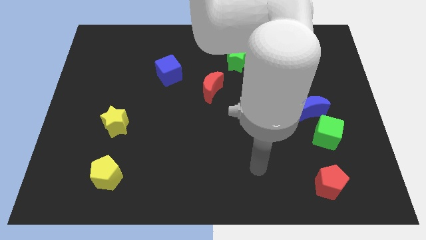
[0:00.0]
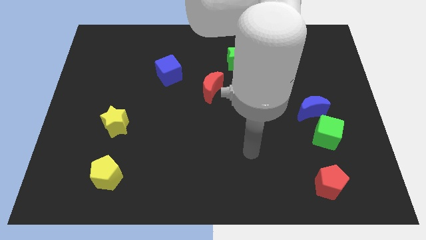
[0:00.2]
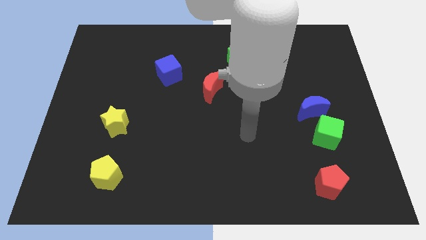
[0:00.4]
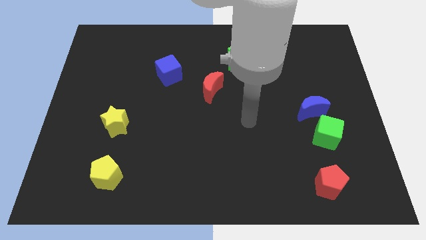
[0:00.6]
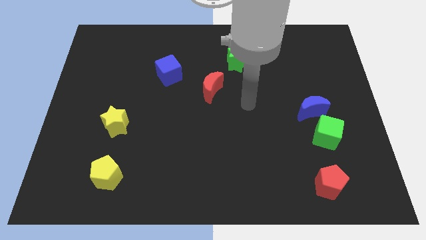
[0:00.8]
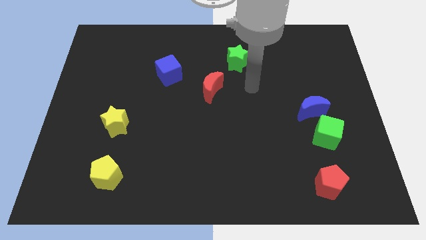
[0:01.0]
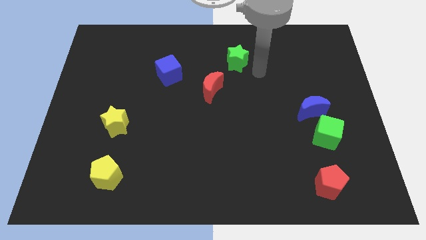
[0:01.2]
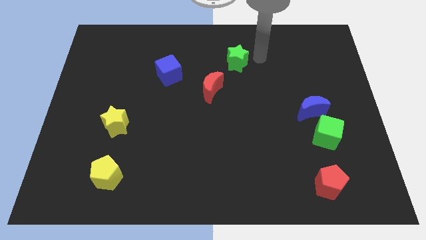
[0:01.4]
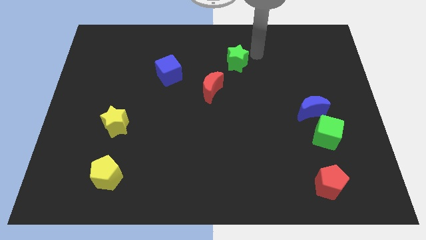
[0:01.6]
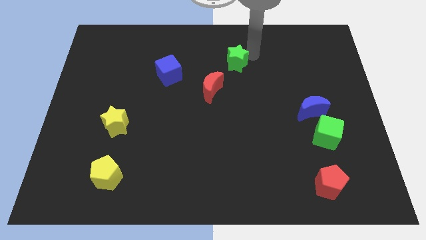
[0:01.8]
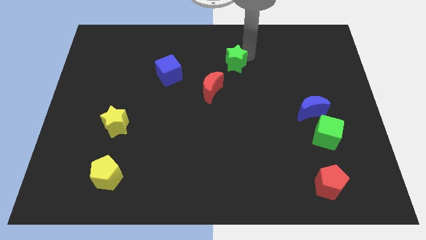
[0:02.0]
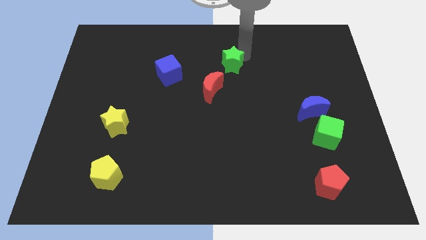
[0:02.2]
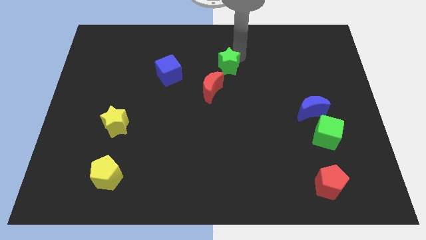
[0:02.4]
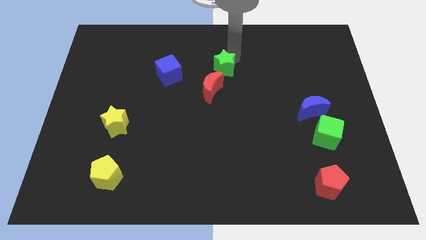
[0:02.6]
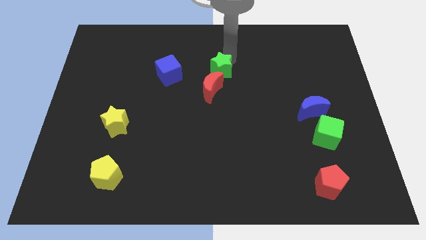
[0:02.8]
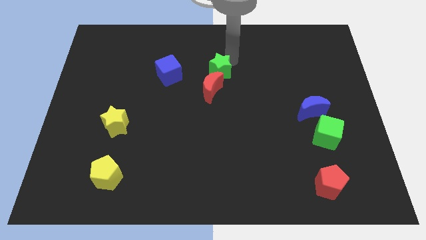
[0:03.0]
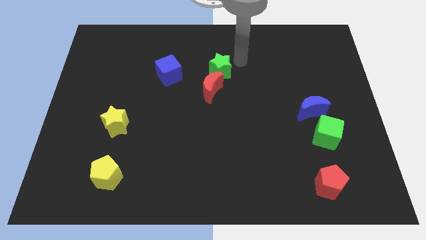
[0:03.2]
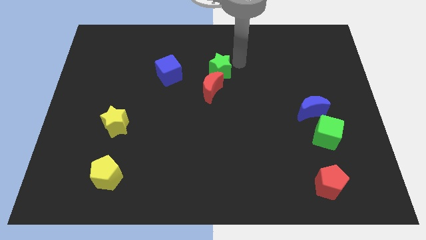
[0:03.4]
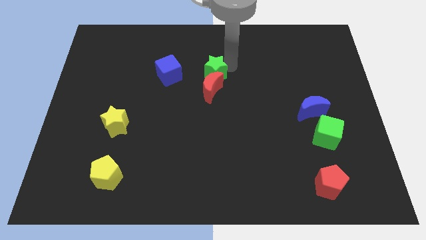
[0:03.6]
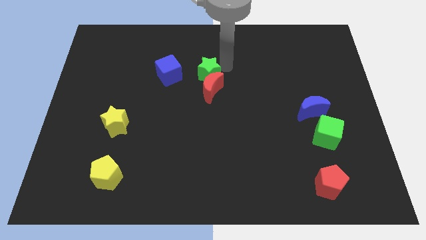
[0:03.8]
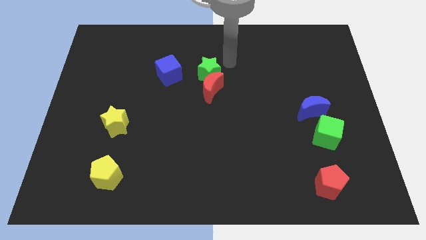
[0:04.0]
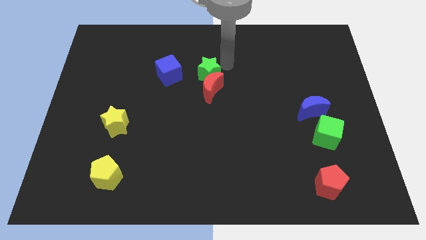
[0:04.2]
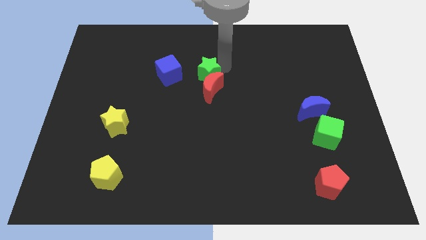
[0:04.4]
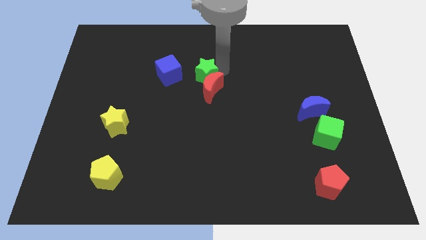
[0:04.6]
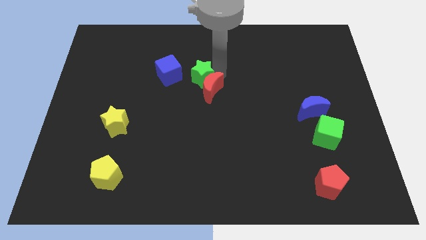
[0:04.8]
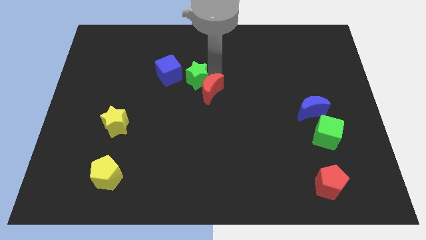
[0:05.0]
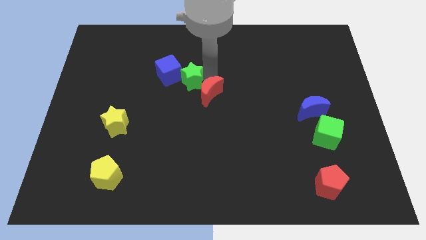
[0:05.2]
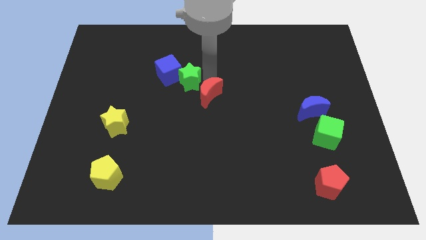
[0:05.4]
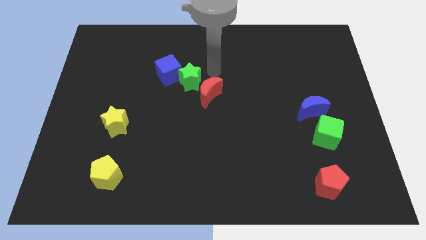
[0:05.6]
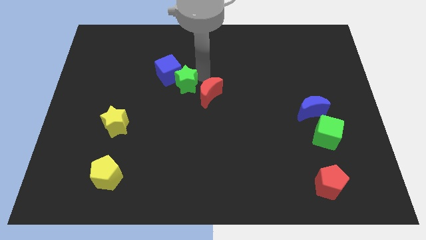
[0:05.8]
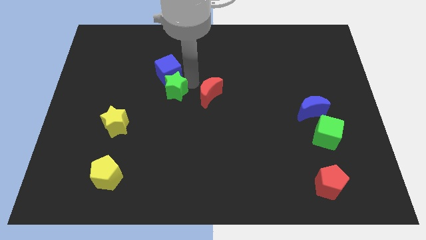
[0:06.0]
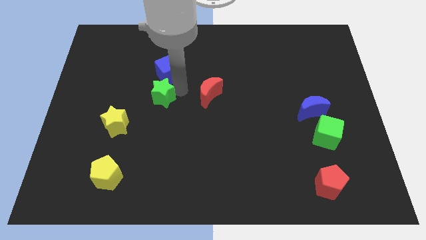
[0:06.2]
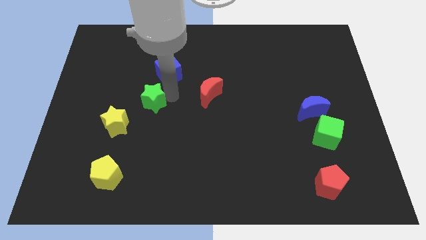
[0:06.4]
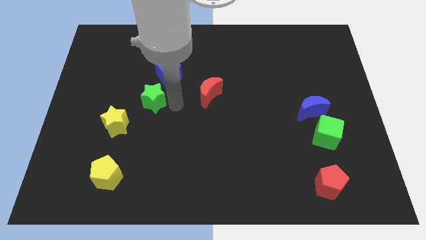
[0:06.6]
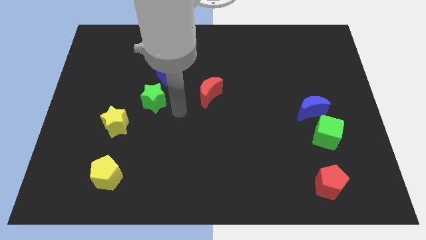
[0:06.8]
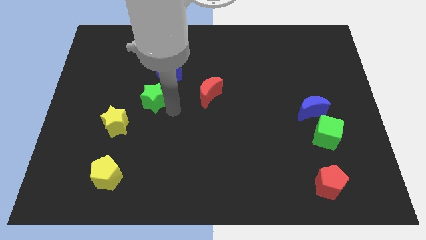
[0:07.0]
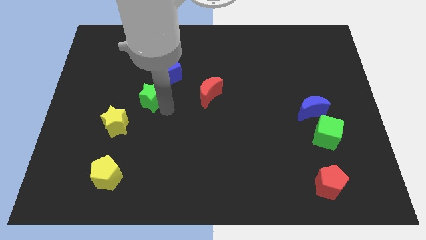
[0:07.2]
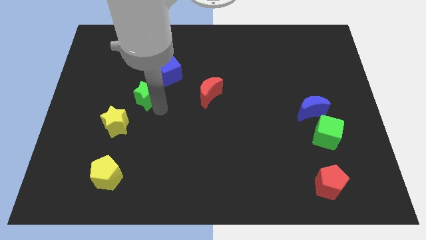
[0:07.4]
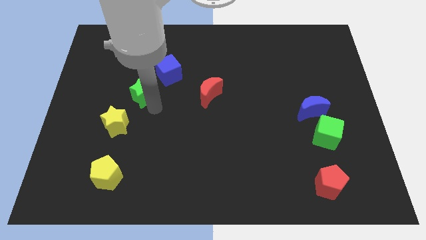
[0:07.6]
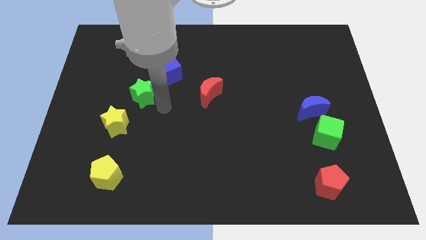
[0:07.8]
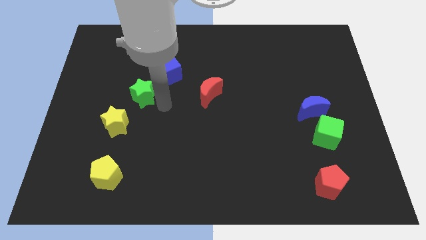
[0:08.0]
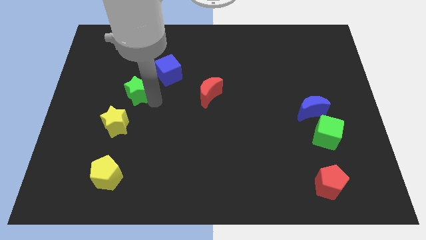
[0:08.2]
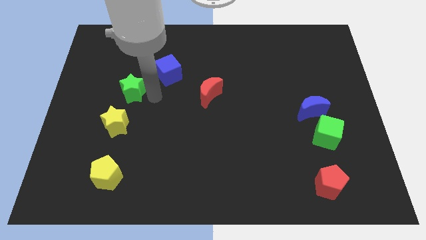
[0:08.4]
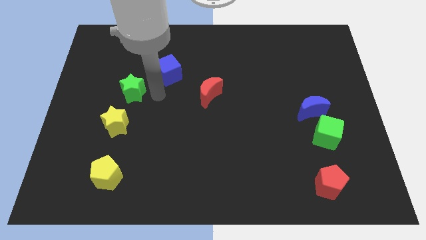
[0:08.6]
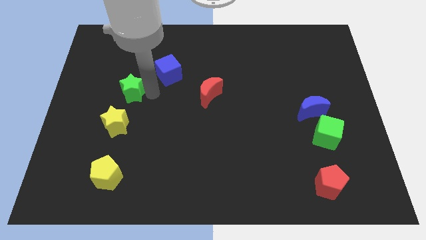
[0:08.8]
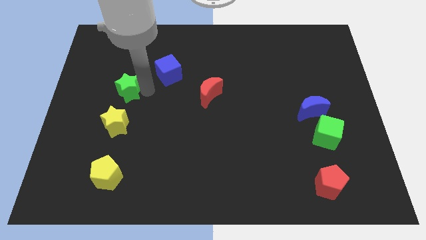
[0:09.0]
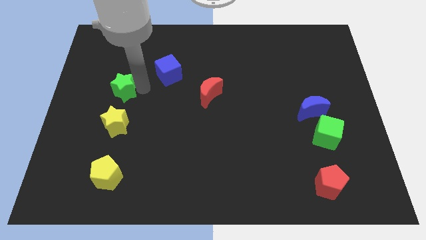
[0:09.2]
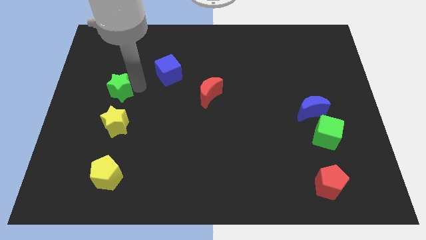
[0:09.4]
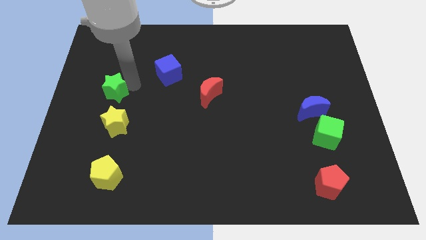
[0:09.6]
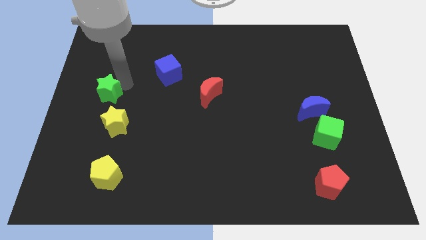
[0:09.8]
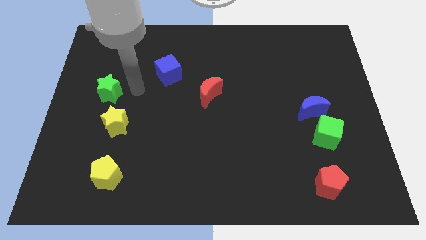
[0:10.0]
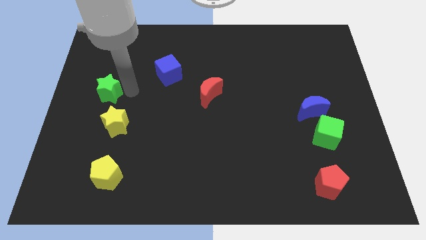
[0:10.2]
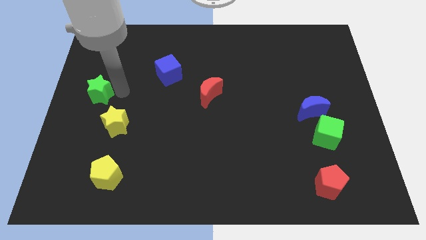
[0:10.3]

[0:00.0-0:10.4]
move the green star to the center left

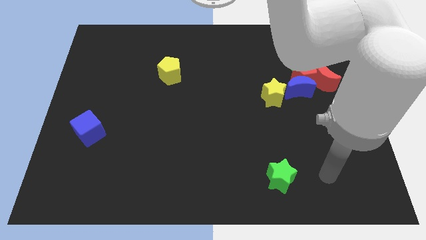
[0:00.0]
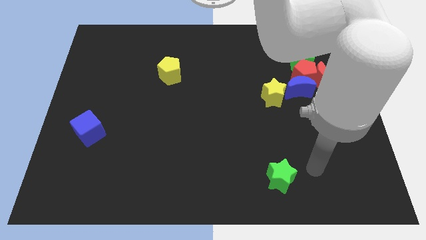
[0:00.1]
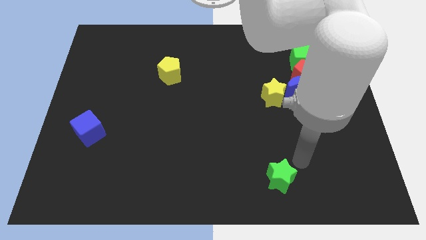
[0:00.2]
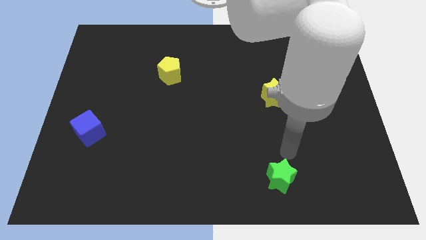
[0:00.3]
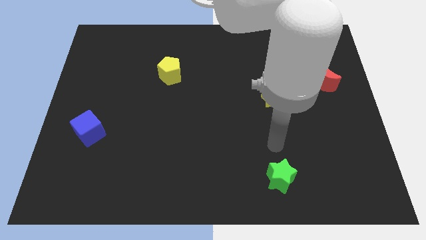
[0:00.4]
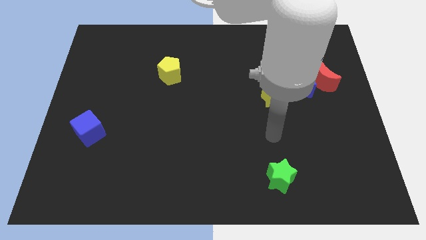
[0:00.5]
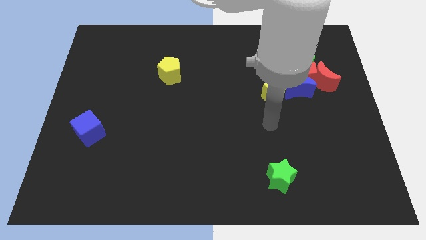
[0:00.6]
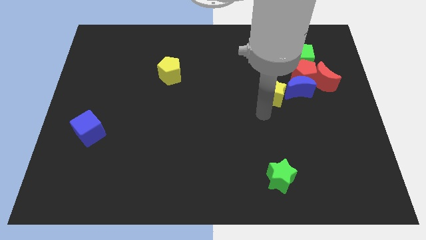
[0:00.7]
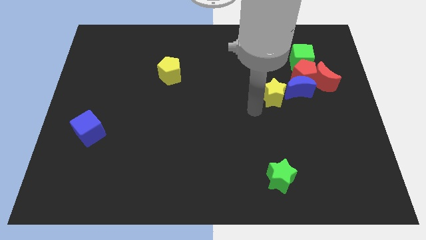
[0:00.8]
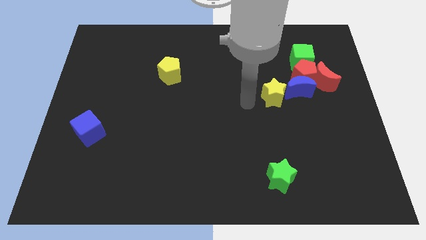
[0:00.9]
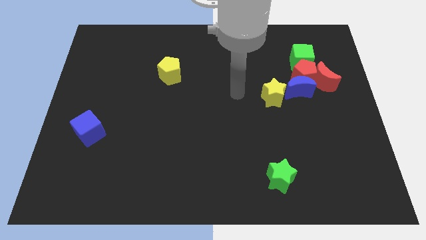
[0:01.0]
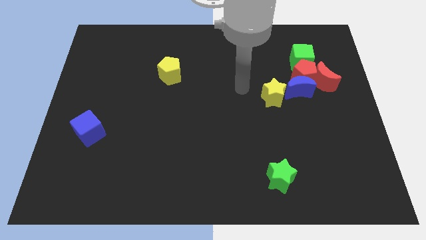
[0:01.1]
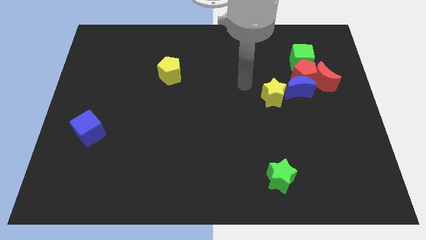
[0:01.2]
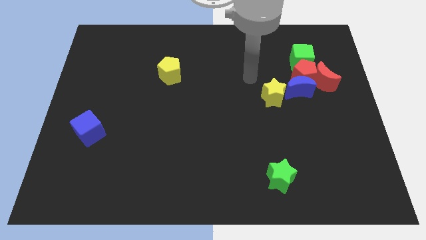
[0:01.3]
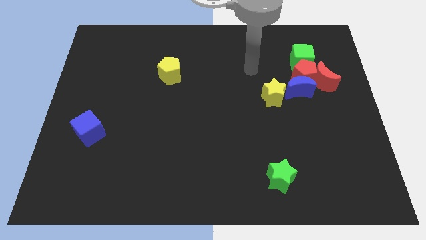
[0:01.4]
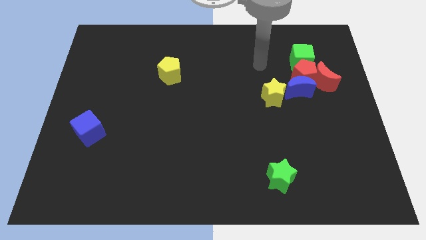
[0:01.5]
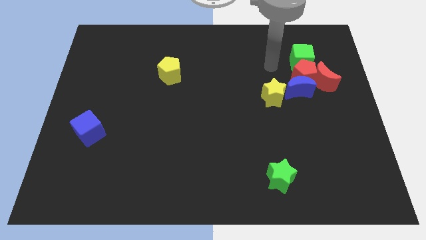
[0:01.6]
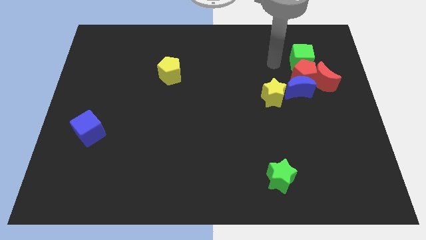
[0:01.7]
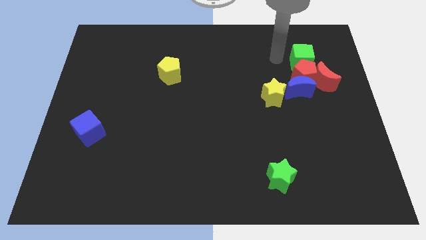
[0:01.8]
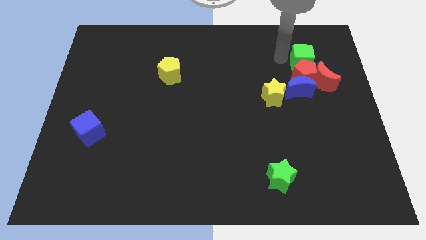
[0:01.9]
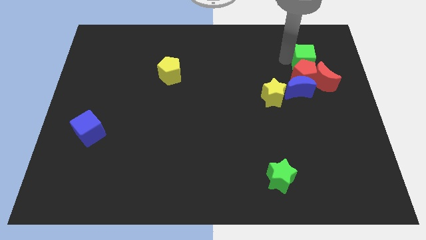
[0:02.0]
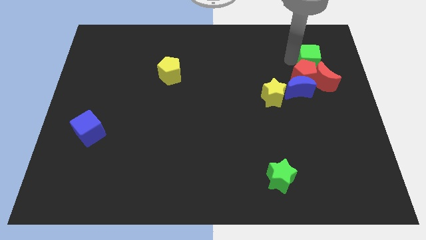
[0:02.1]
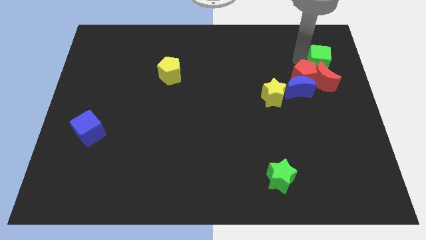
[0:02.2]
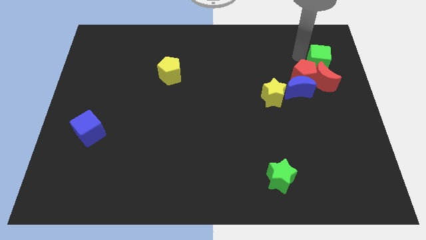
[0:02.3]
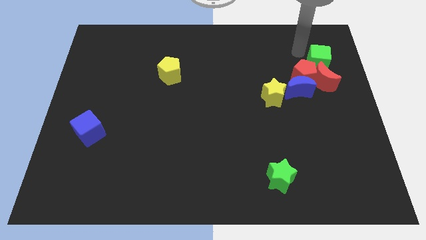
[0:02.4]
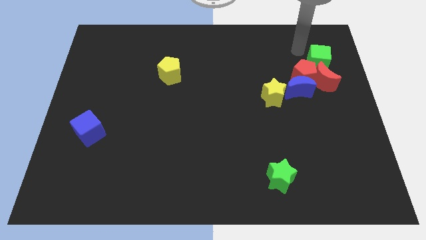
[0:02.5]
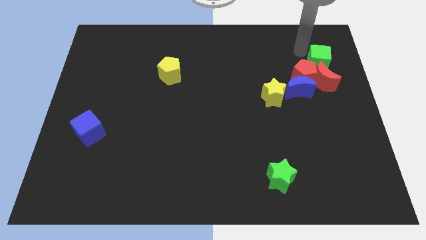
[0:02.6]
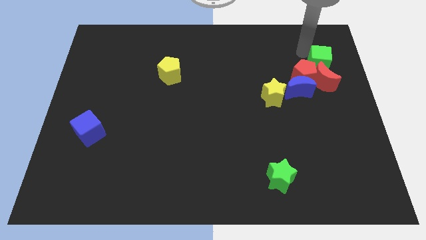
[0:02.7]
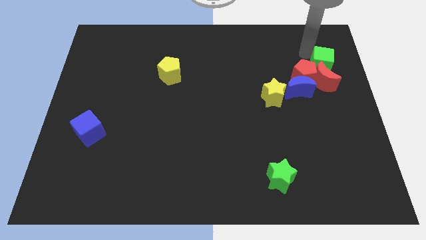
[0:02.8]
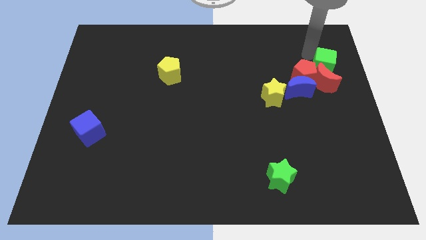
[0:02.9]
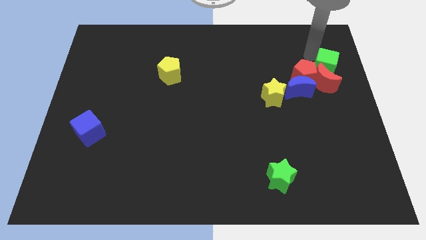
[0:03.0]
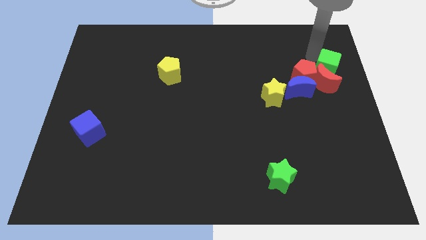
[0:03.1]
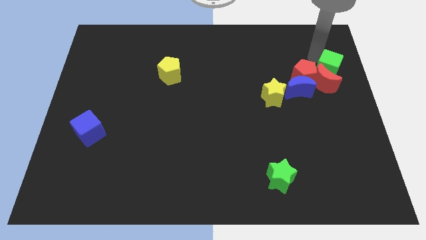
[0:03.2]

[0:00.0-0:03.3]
slide the green cube to the center right
